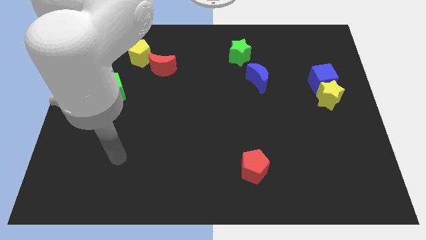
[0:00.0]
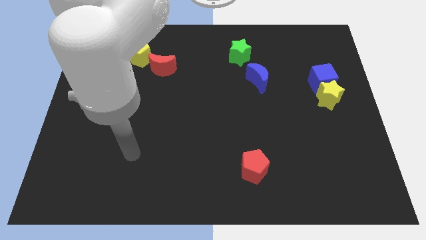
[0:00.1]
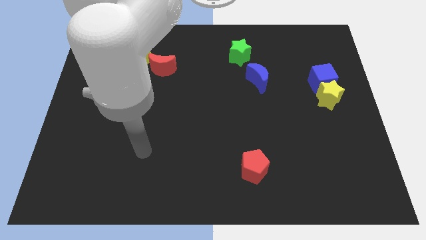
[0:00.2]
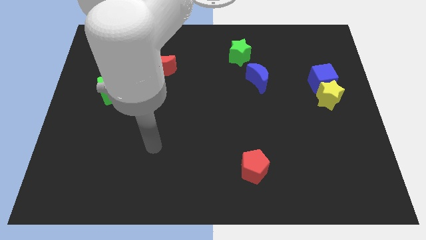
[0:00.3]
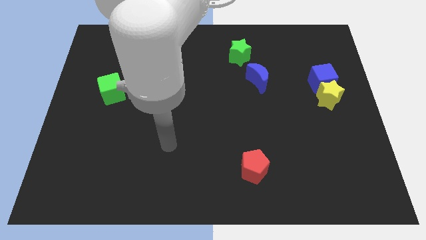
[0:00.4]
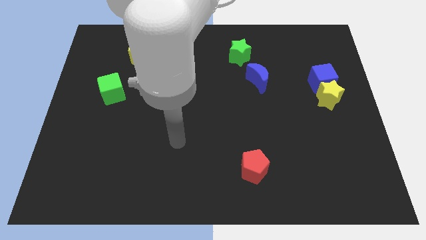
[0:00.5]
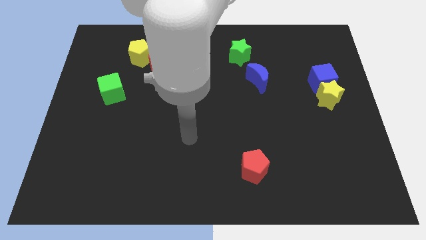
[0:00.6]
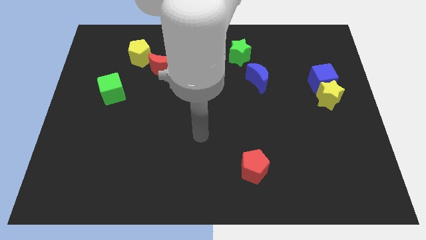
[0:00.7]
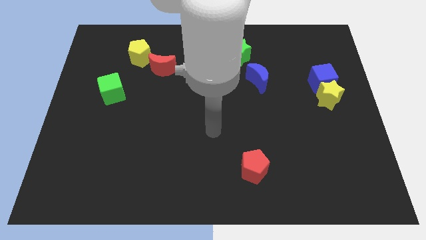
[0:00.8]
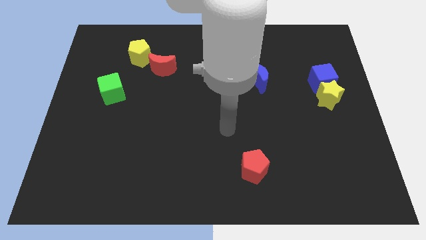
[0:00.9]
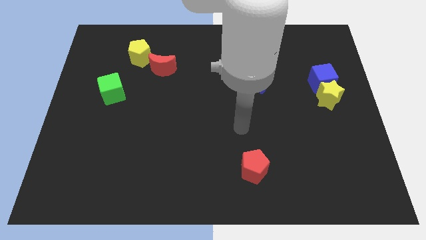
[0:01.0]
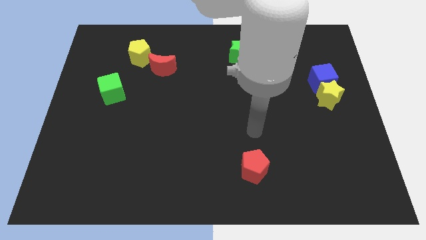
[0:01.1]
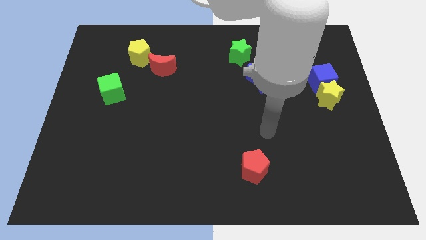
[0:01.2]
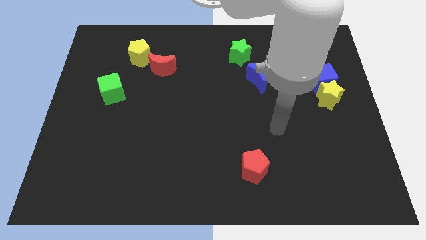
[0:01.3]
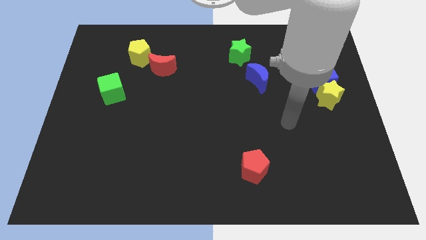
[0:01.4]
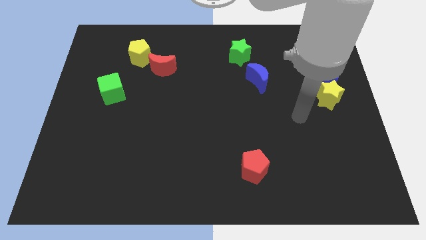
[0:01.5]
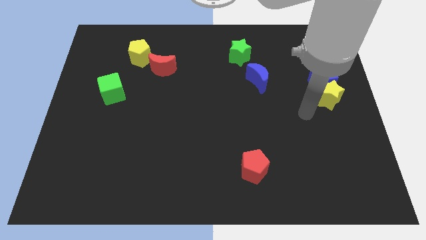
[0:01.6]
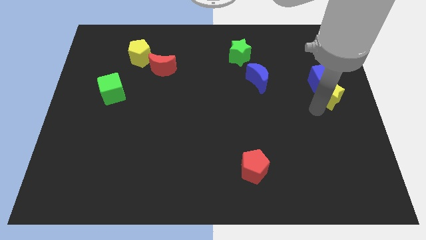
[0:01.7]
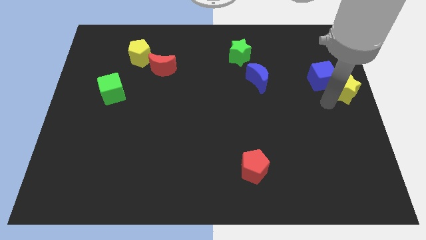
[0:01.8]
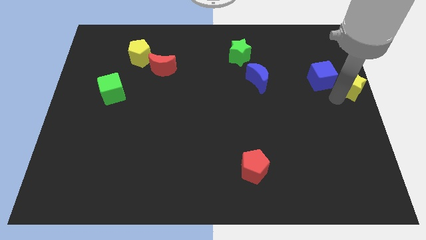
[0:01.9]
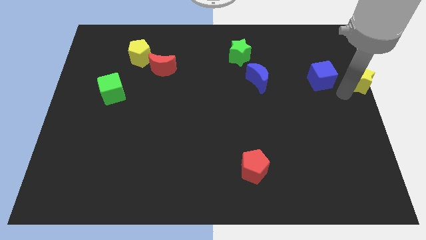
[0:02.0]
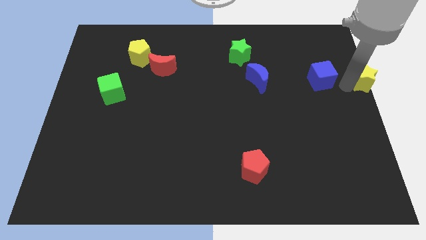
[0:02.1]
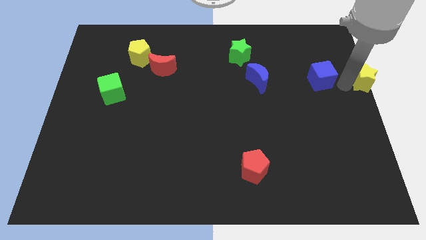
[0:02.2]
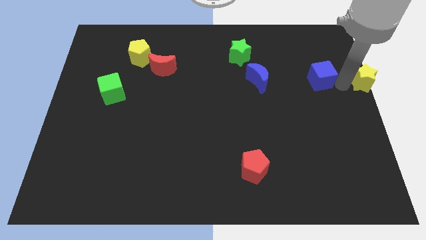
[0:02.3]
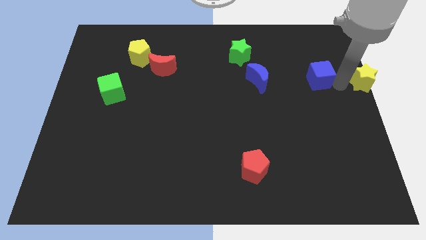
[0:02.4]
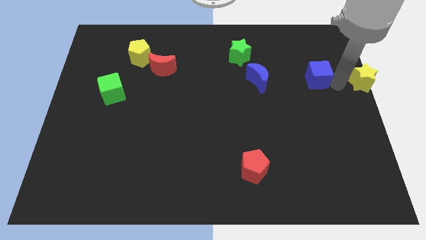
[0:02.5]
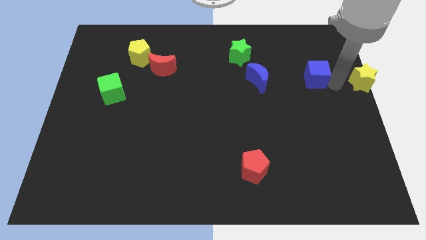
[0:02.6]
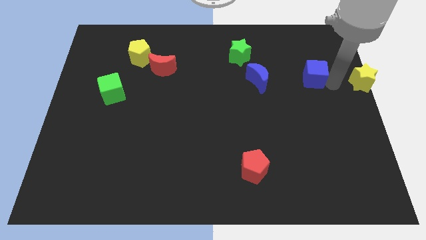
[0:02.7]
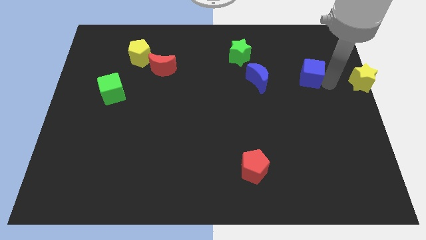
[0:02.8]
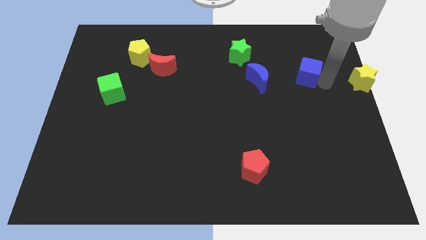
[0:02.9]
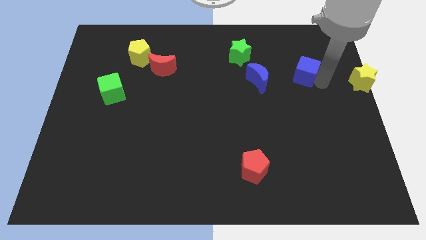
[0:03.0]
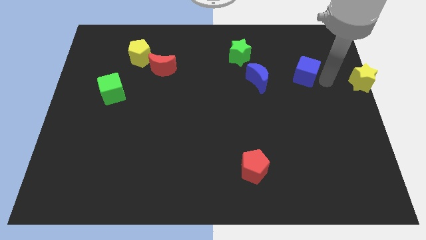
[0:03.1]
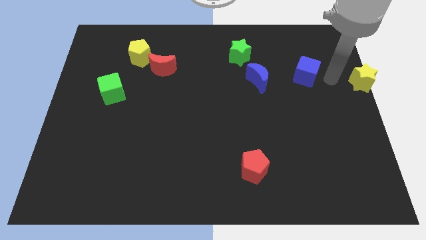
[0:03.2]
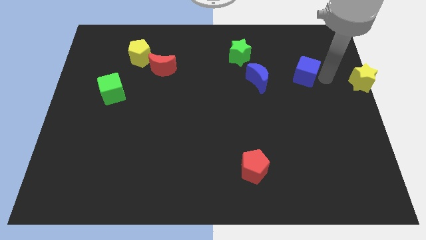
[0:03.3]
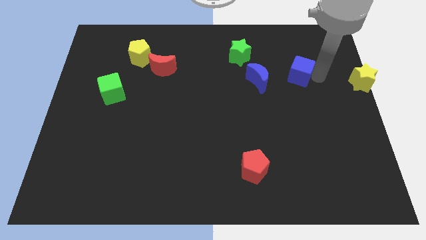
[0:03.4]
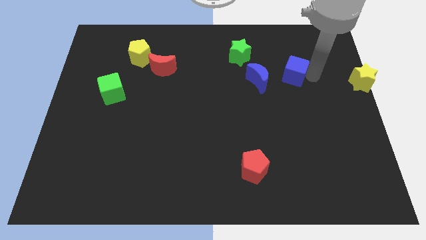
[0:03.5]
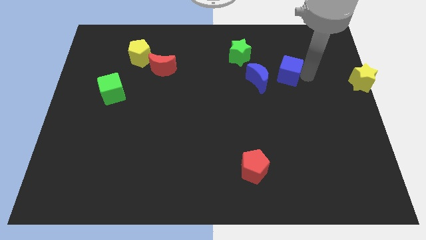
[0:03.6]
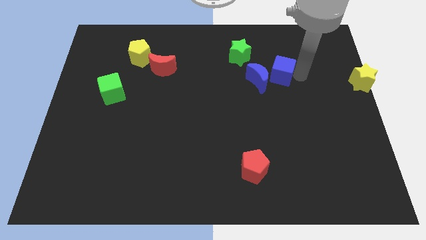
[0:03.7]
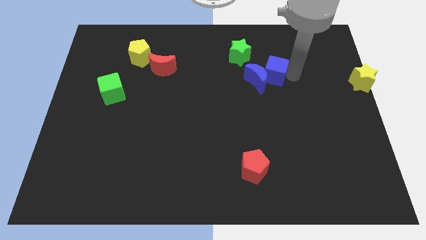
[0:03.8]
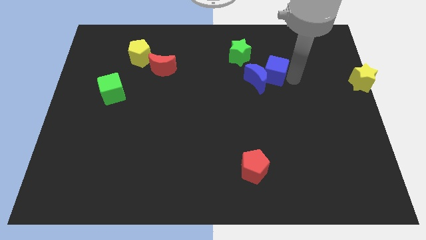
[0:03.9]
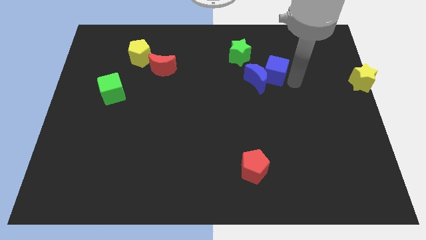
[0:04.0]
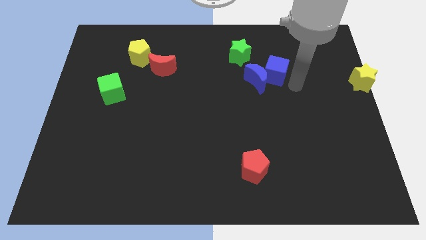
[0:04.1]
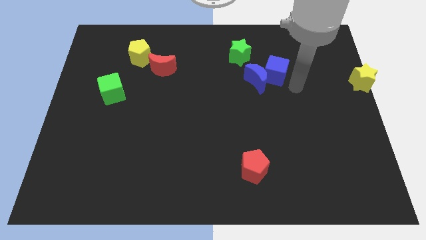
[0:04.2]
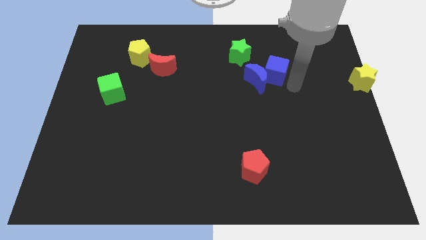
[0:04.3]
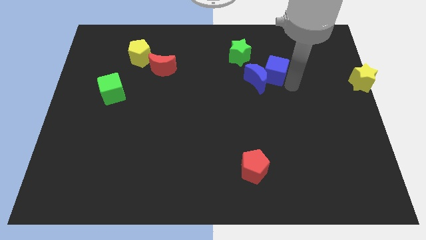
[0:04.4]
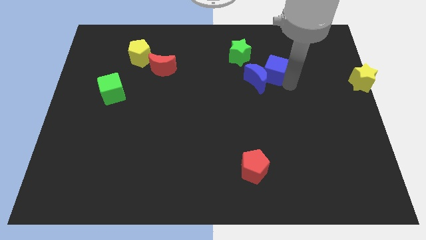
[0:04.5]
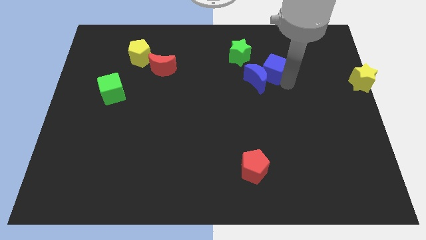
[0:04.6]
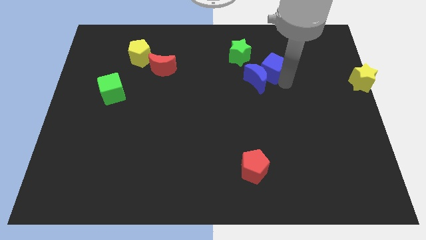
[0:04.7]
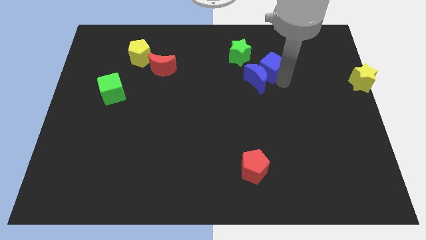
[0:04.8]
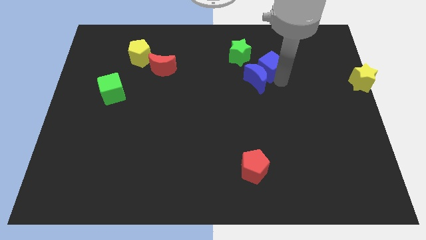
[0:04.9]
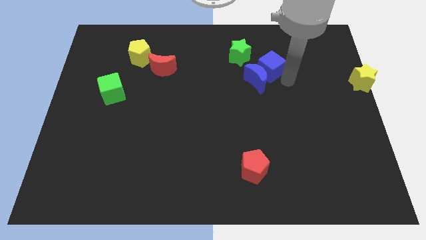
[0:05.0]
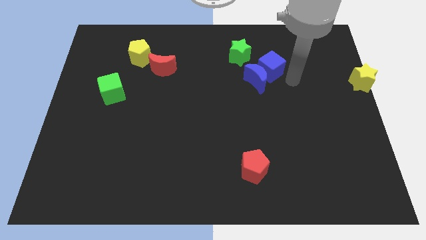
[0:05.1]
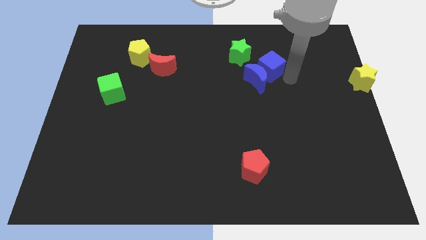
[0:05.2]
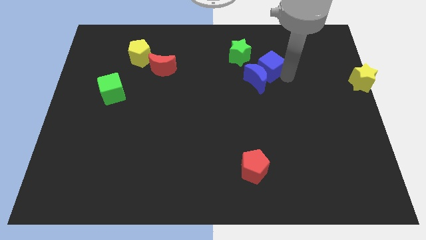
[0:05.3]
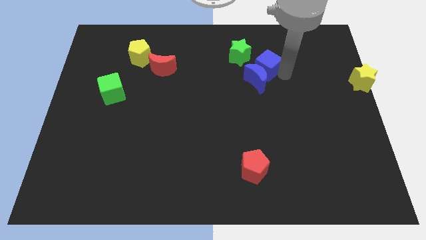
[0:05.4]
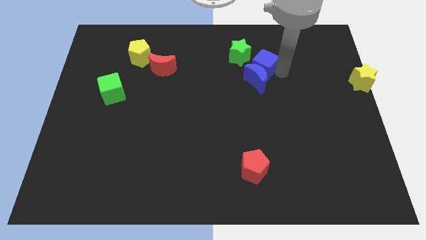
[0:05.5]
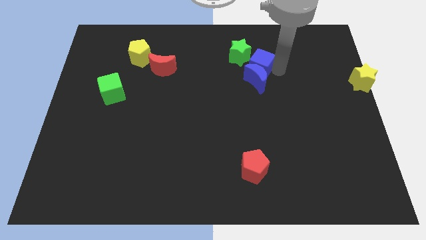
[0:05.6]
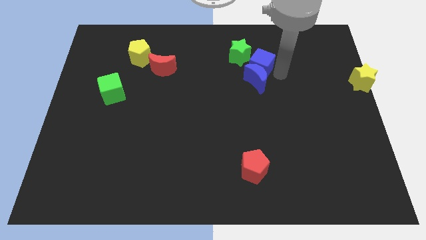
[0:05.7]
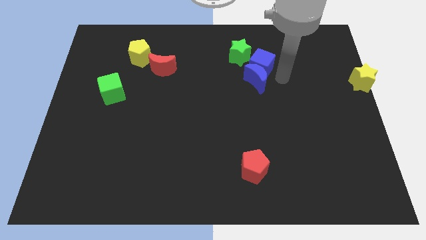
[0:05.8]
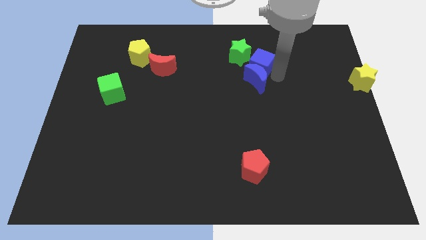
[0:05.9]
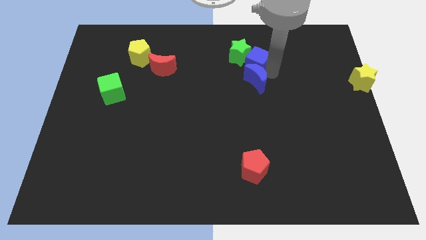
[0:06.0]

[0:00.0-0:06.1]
move the blue cube to the green star

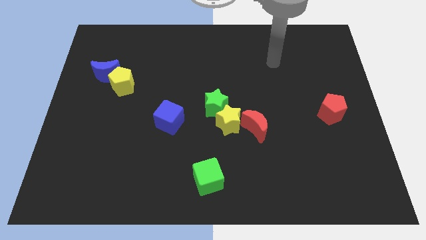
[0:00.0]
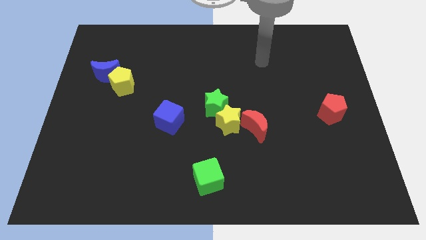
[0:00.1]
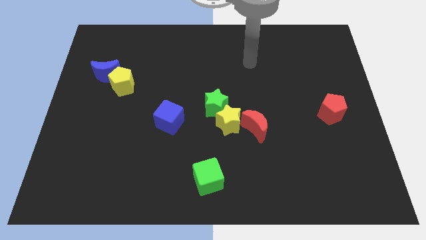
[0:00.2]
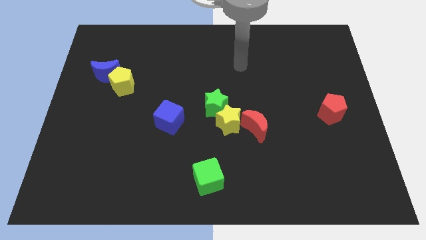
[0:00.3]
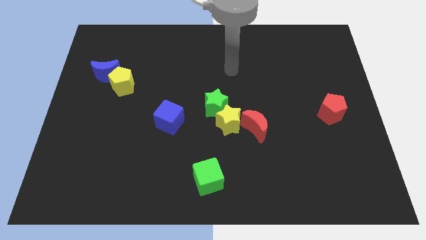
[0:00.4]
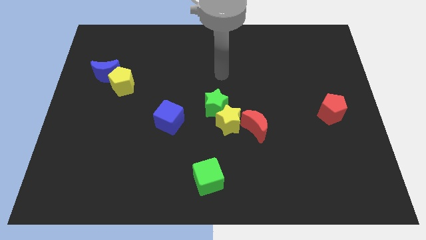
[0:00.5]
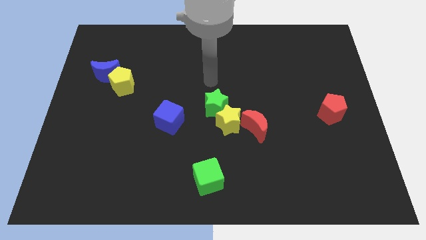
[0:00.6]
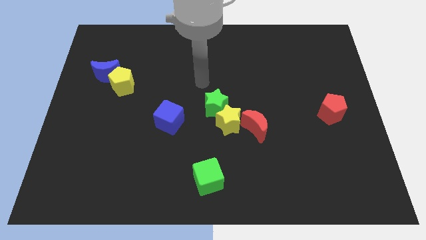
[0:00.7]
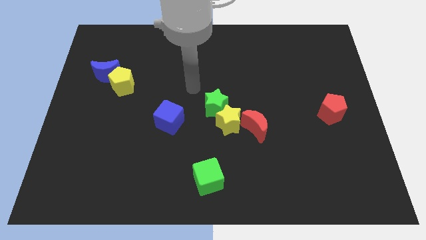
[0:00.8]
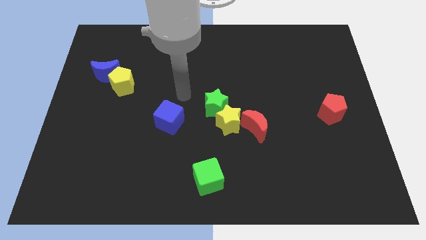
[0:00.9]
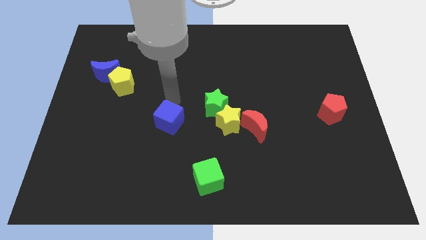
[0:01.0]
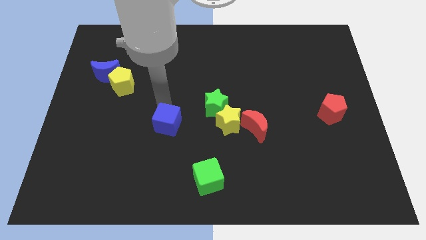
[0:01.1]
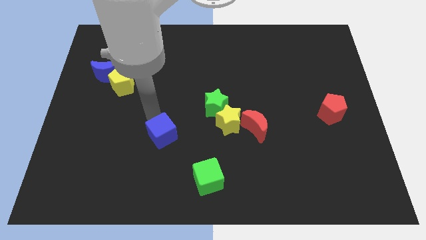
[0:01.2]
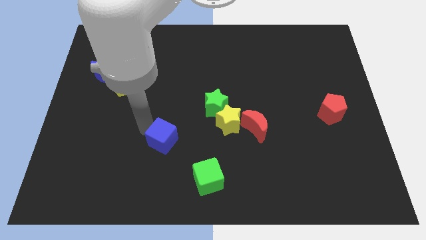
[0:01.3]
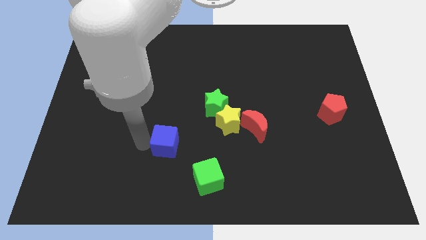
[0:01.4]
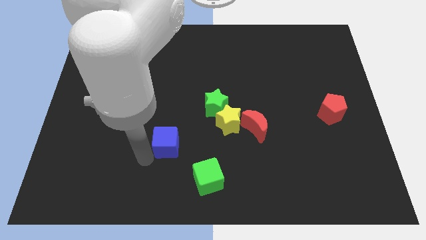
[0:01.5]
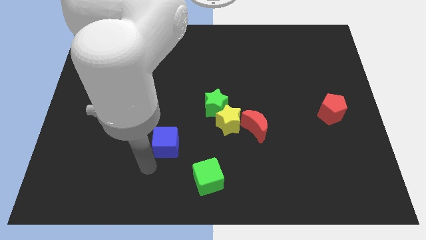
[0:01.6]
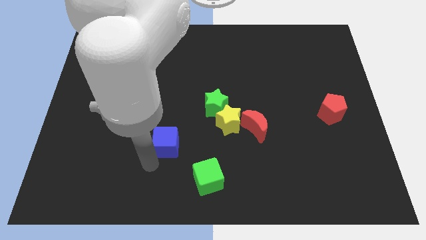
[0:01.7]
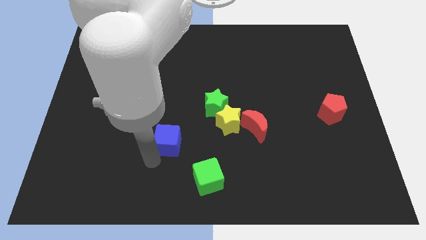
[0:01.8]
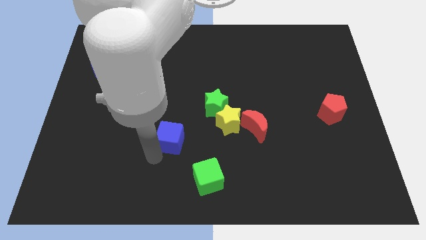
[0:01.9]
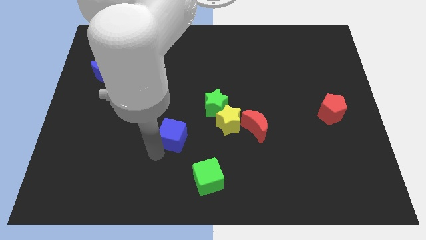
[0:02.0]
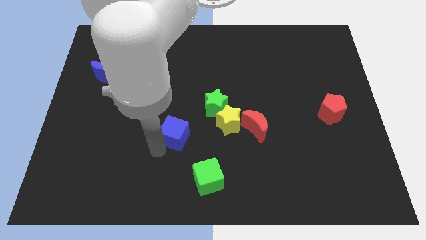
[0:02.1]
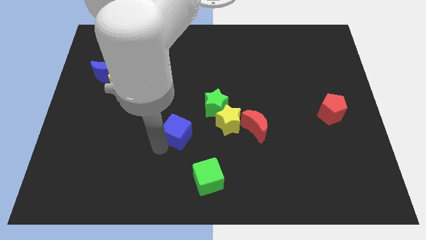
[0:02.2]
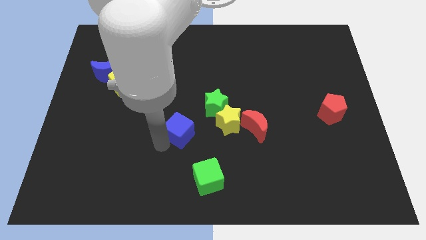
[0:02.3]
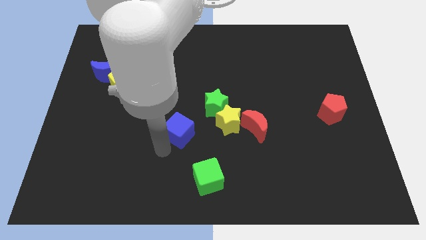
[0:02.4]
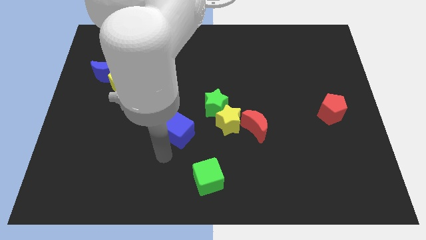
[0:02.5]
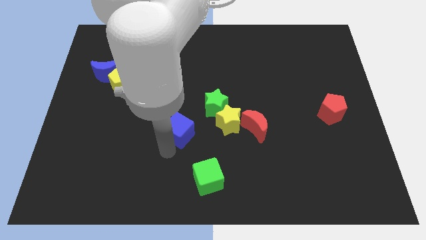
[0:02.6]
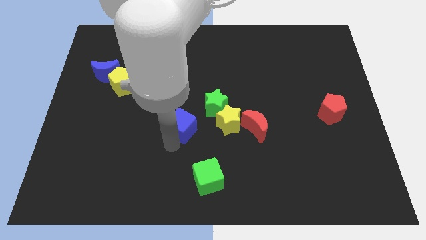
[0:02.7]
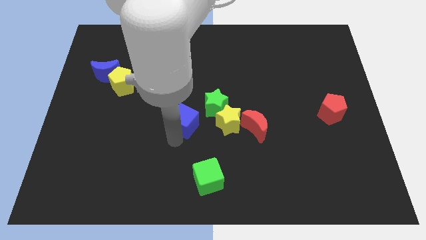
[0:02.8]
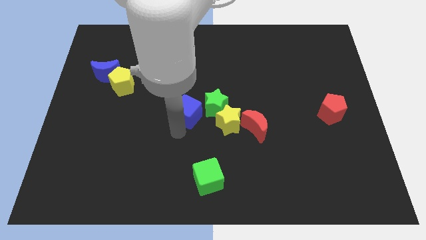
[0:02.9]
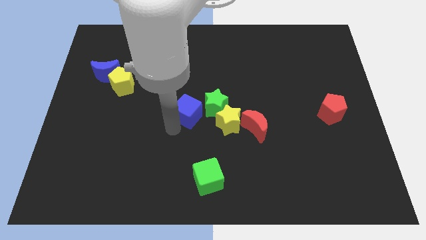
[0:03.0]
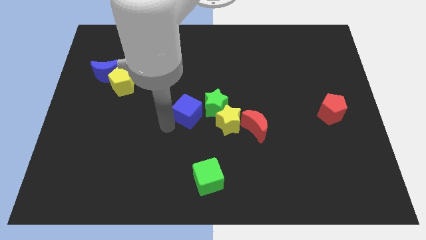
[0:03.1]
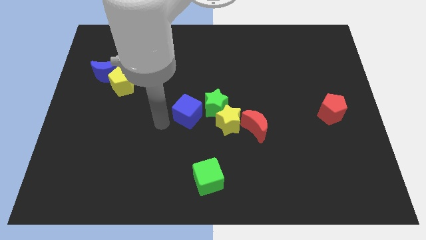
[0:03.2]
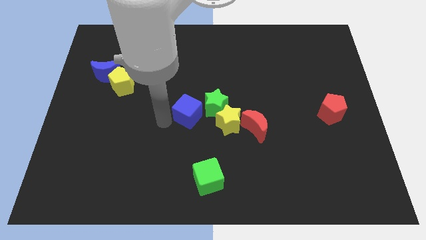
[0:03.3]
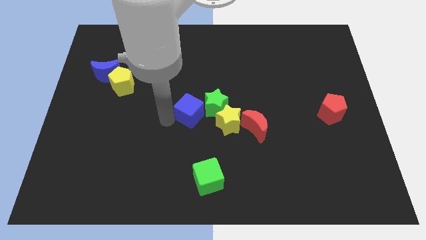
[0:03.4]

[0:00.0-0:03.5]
slide the blue cube close to the green star
